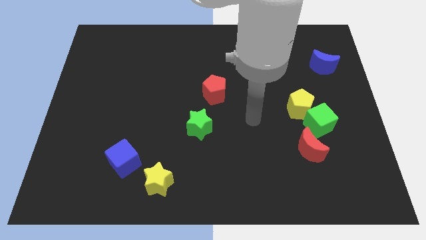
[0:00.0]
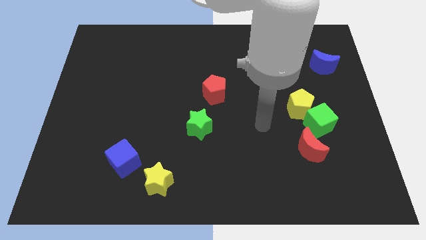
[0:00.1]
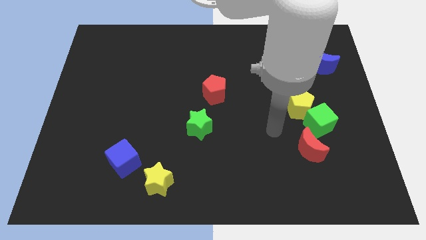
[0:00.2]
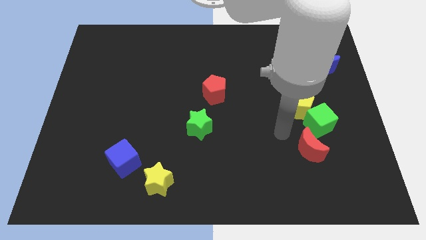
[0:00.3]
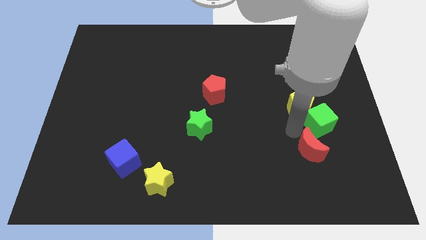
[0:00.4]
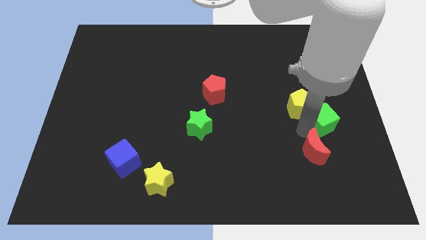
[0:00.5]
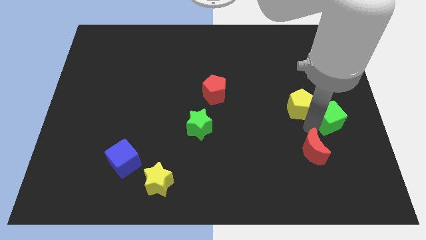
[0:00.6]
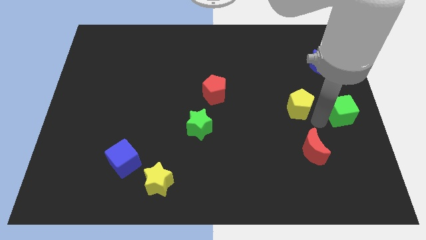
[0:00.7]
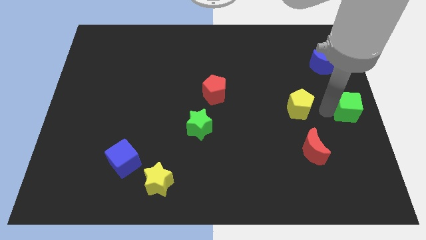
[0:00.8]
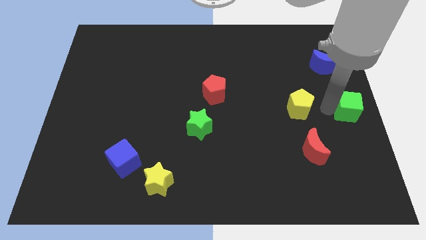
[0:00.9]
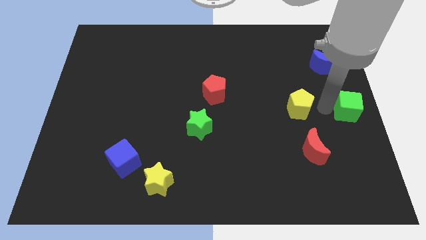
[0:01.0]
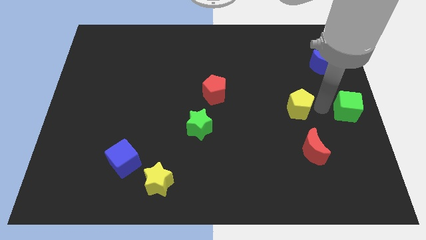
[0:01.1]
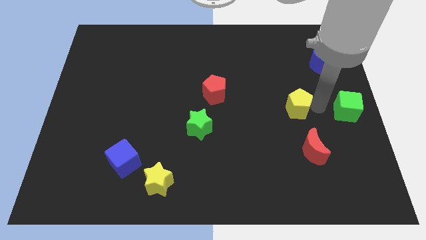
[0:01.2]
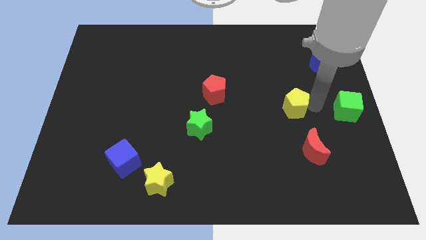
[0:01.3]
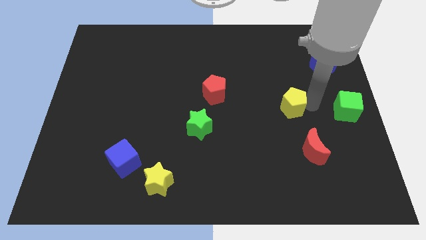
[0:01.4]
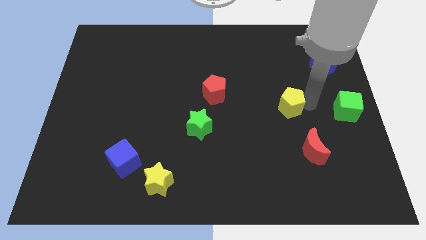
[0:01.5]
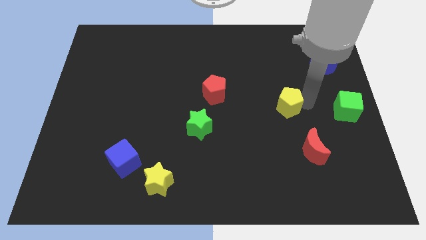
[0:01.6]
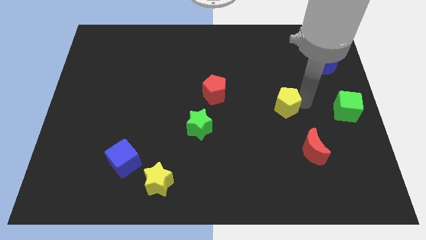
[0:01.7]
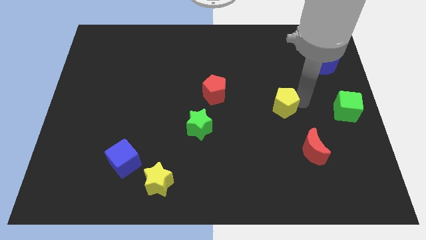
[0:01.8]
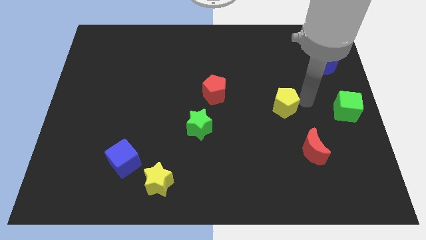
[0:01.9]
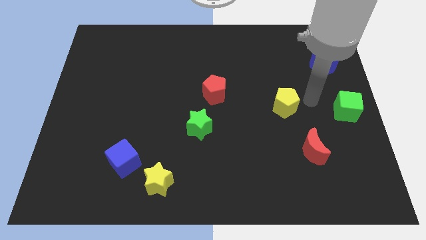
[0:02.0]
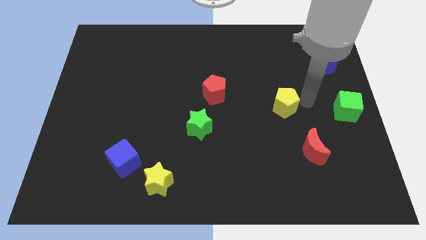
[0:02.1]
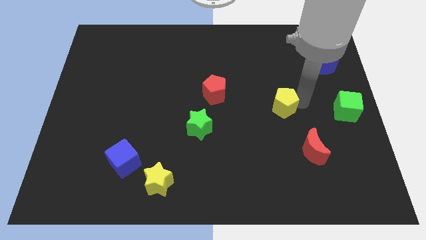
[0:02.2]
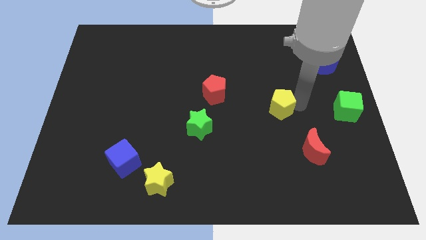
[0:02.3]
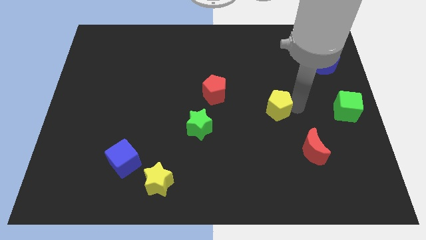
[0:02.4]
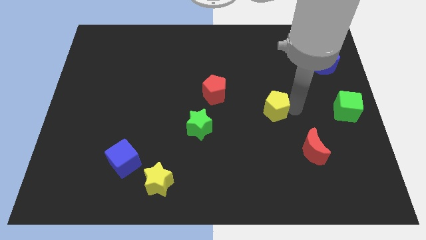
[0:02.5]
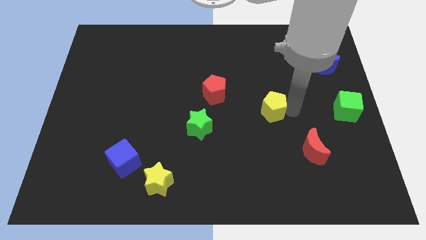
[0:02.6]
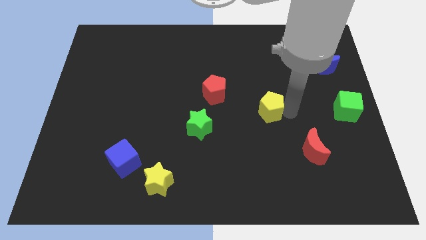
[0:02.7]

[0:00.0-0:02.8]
push the yellow pentagon left a little bit

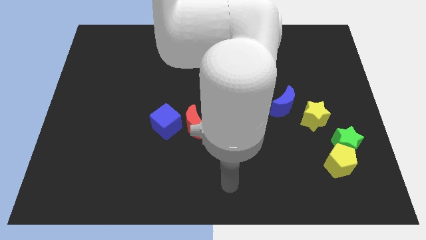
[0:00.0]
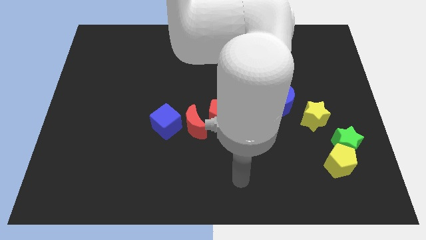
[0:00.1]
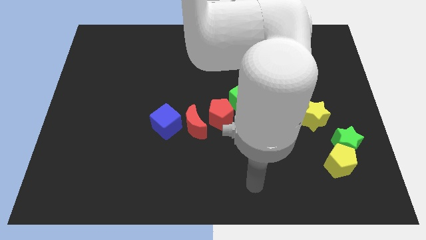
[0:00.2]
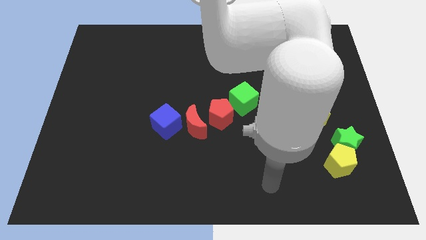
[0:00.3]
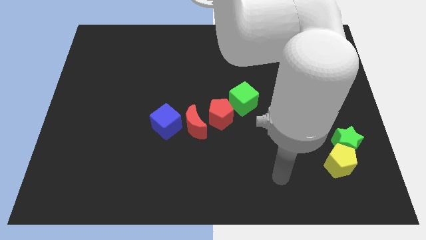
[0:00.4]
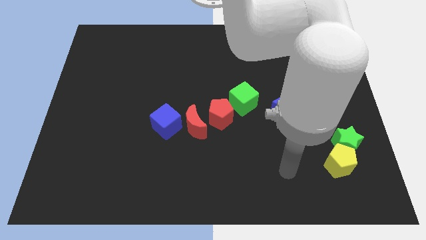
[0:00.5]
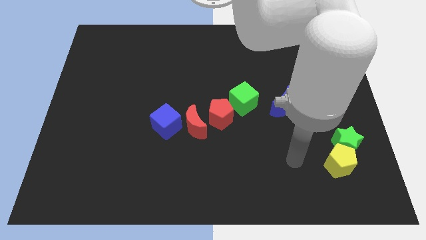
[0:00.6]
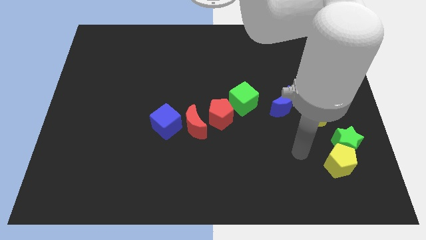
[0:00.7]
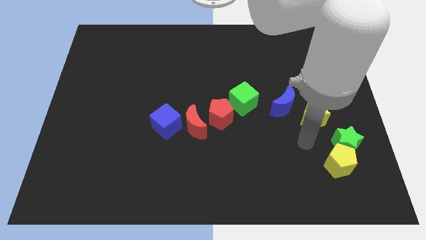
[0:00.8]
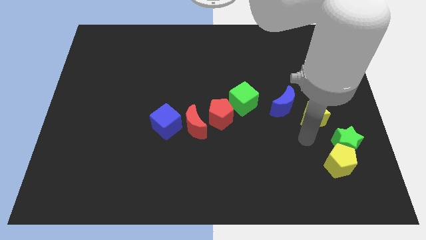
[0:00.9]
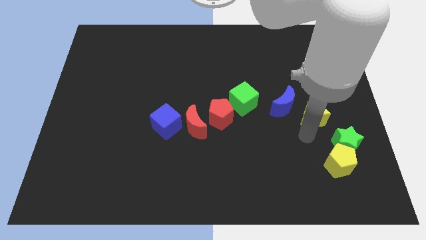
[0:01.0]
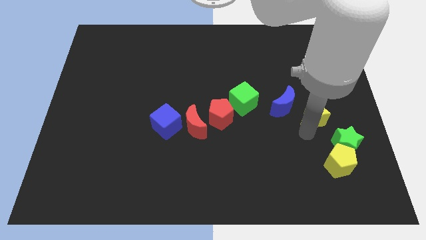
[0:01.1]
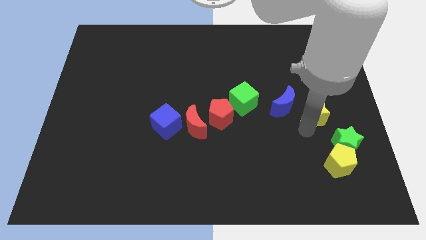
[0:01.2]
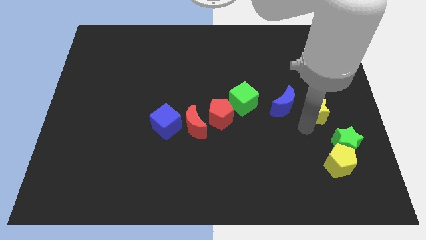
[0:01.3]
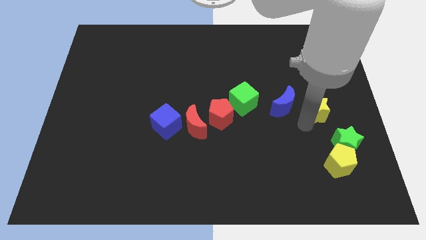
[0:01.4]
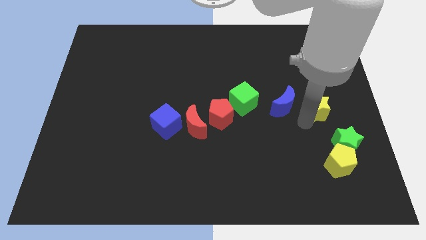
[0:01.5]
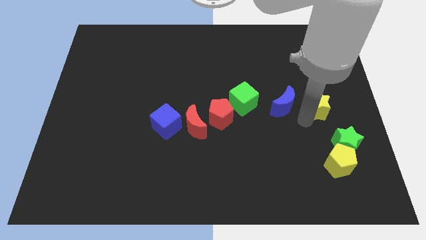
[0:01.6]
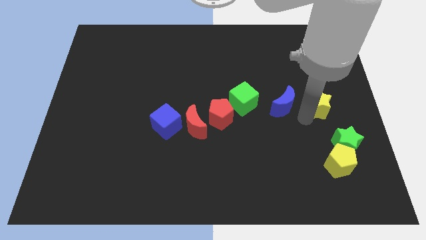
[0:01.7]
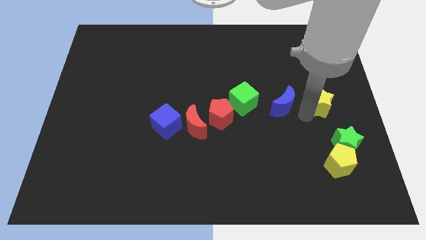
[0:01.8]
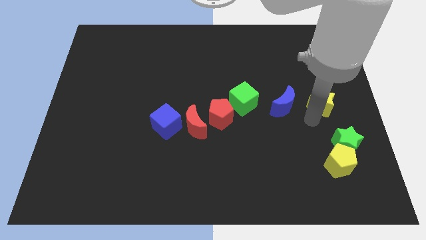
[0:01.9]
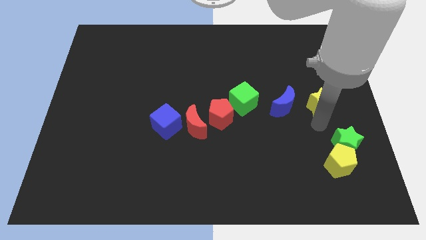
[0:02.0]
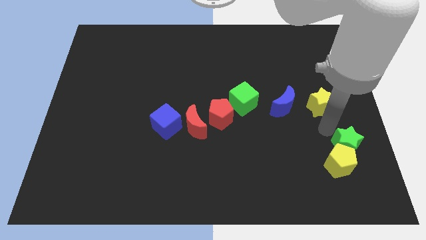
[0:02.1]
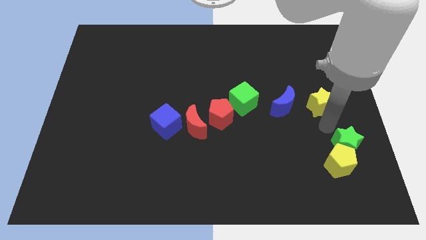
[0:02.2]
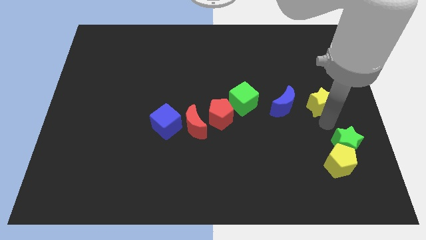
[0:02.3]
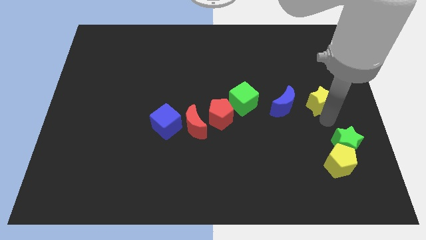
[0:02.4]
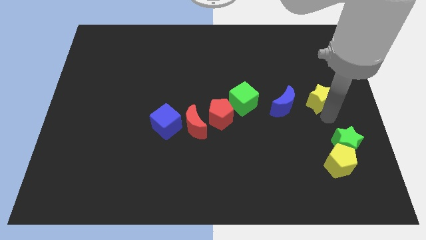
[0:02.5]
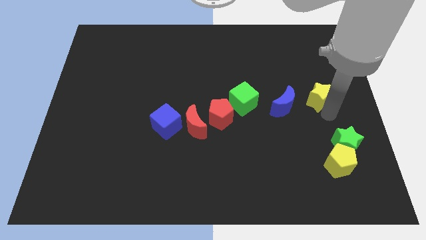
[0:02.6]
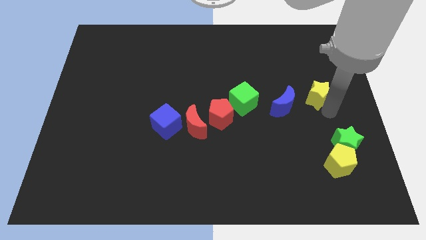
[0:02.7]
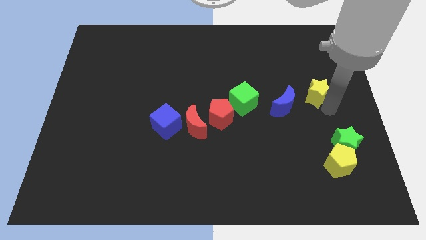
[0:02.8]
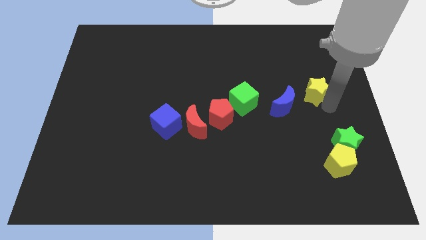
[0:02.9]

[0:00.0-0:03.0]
slightly slide the yellow star upwards

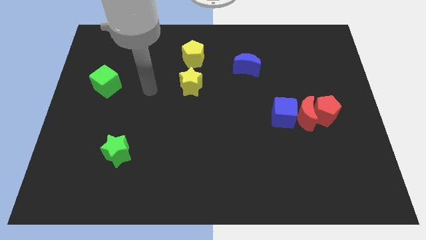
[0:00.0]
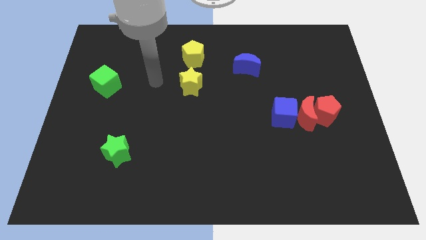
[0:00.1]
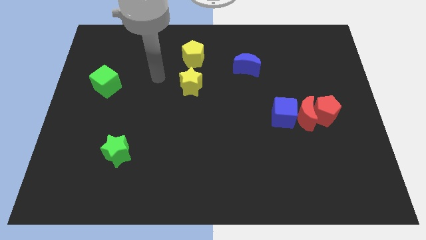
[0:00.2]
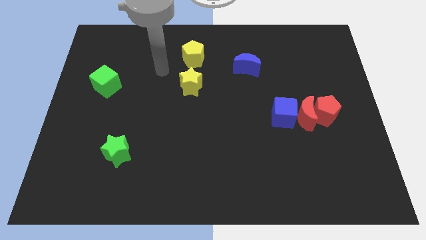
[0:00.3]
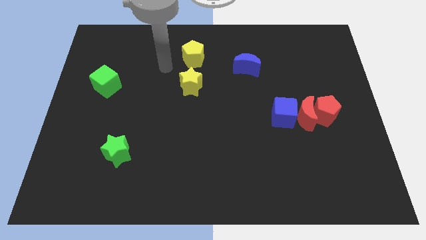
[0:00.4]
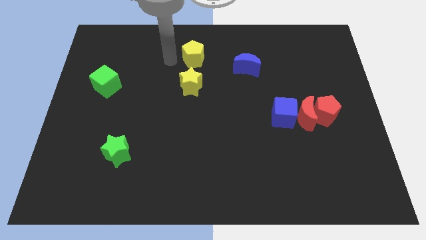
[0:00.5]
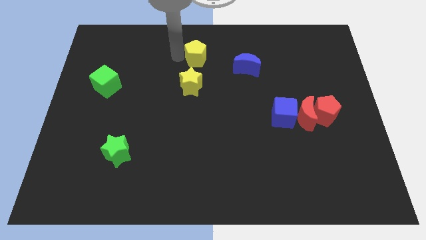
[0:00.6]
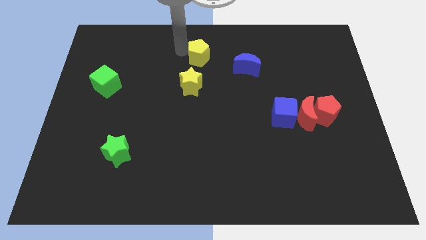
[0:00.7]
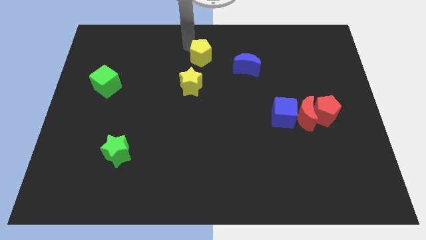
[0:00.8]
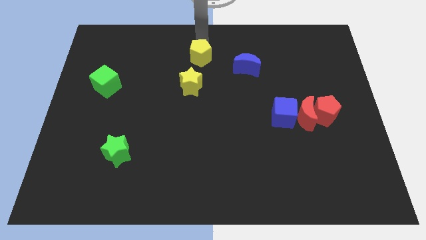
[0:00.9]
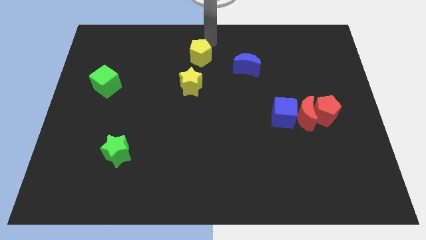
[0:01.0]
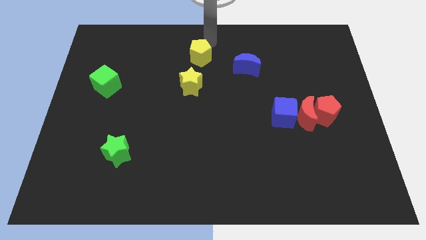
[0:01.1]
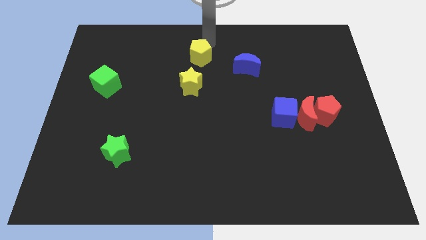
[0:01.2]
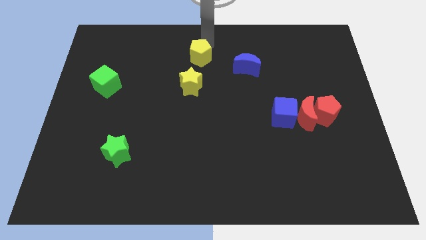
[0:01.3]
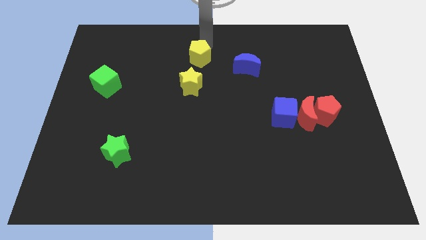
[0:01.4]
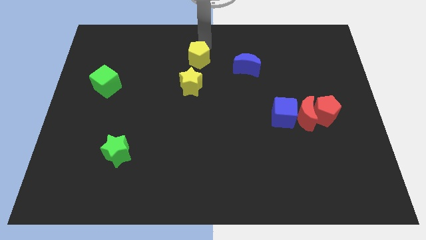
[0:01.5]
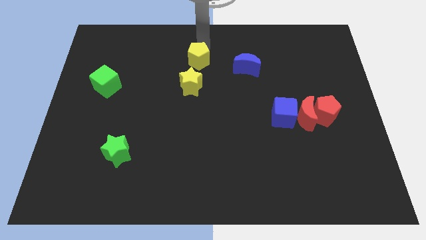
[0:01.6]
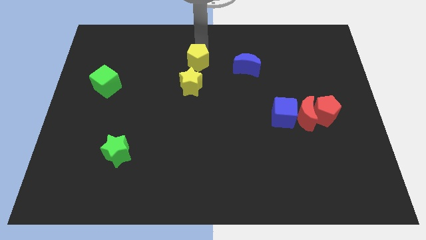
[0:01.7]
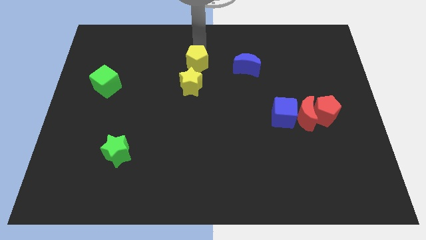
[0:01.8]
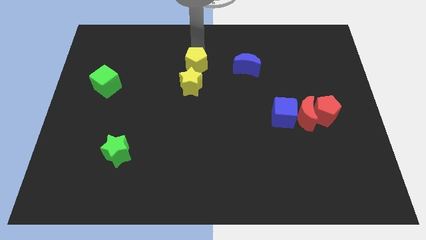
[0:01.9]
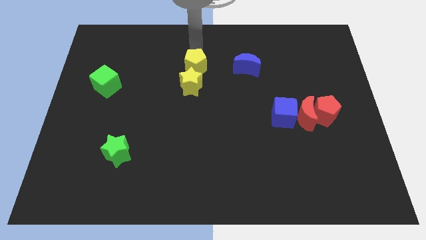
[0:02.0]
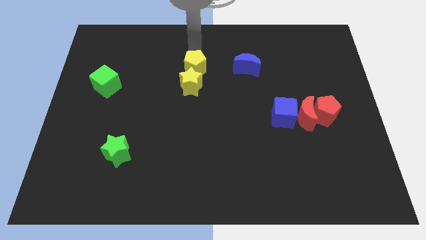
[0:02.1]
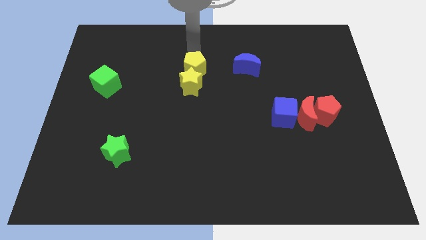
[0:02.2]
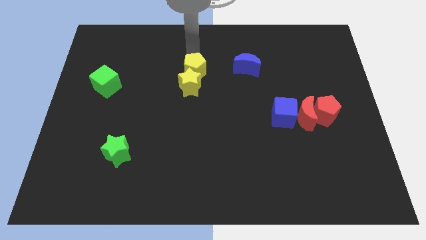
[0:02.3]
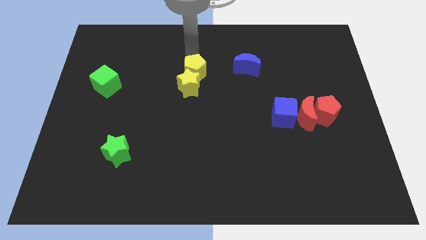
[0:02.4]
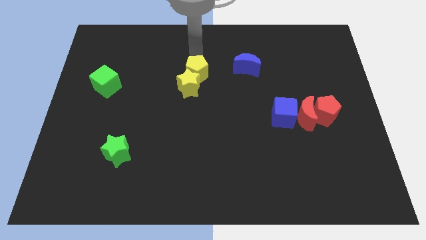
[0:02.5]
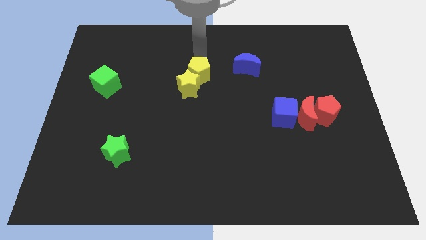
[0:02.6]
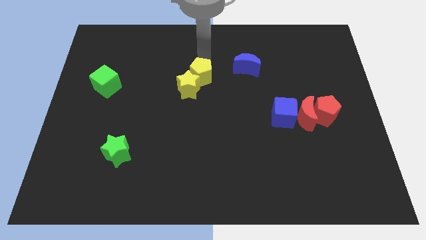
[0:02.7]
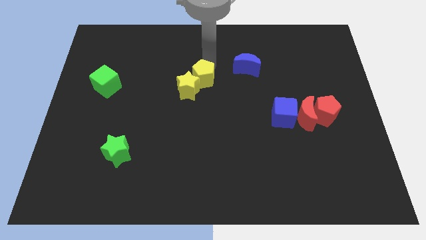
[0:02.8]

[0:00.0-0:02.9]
slide the yellow pentagon a bit down
